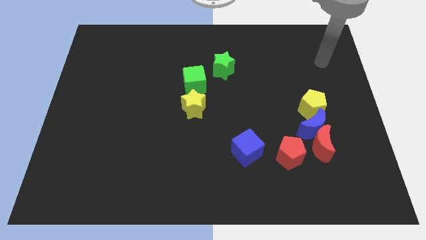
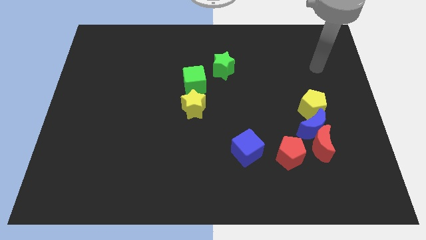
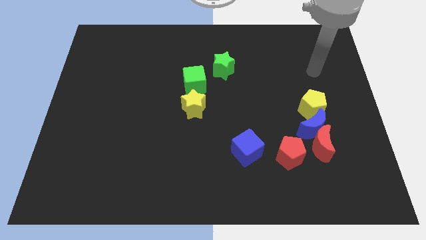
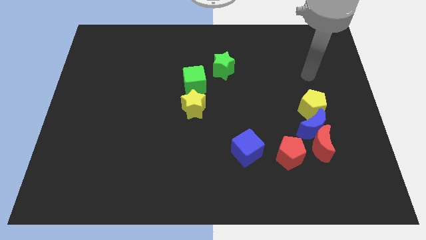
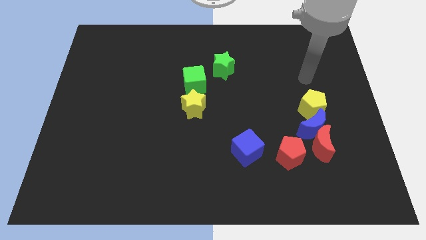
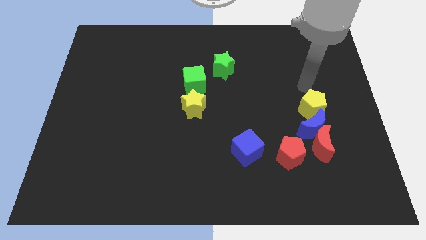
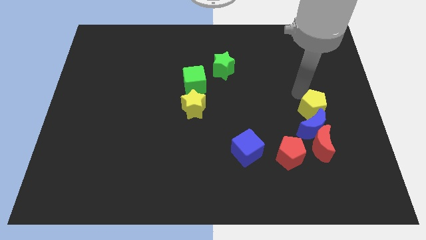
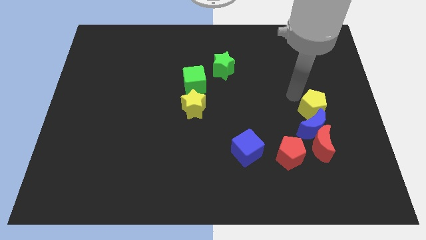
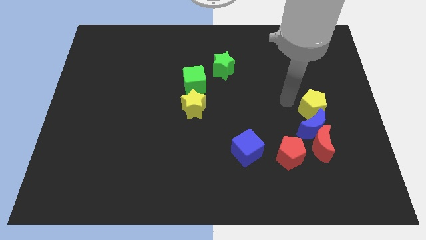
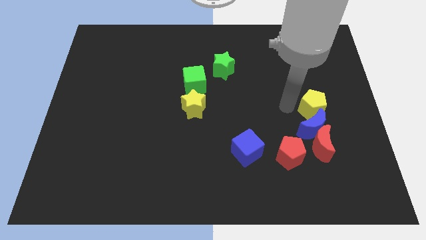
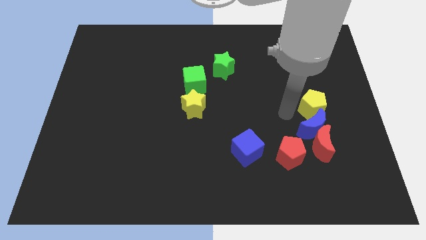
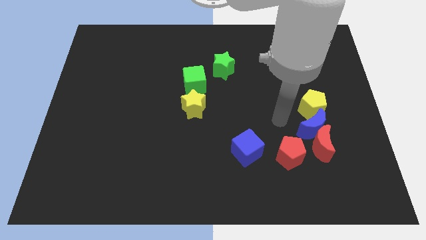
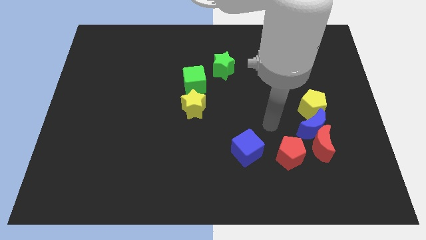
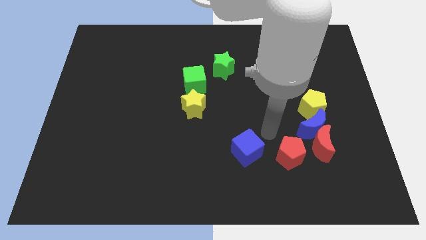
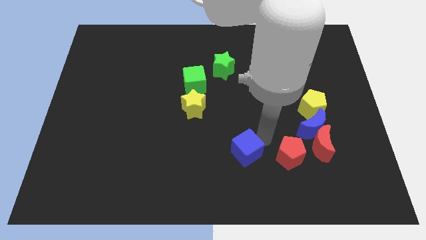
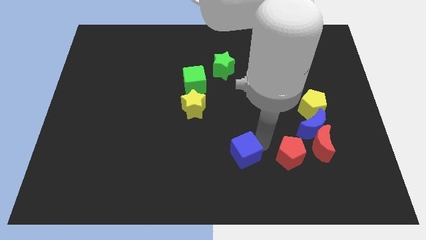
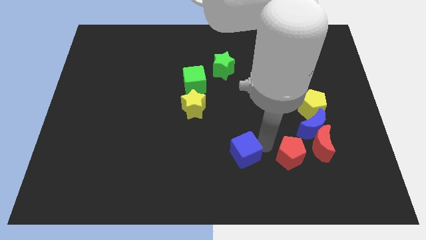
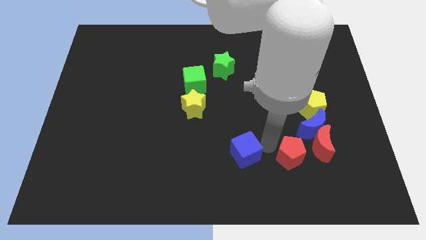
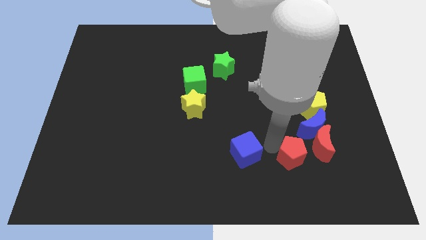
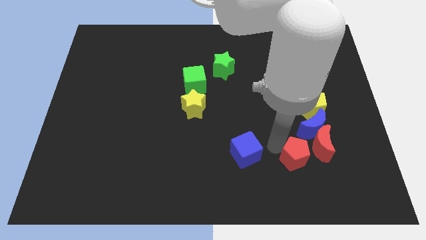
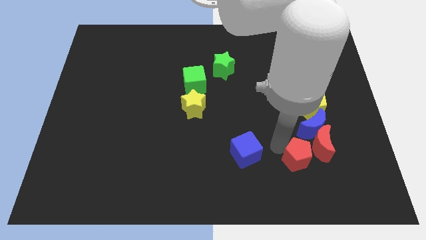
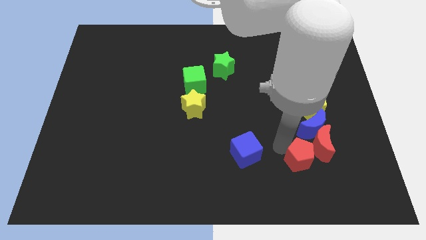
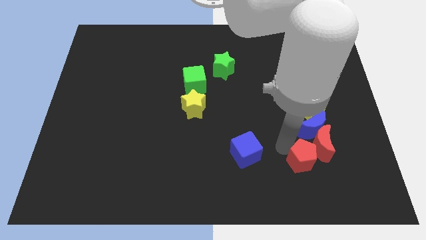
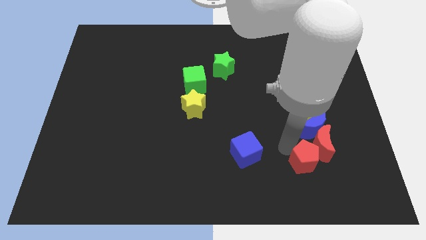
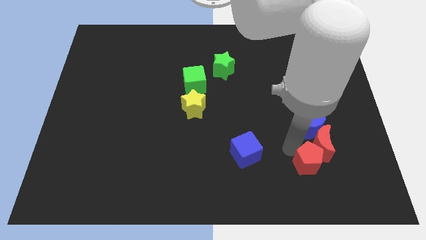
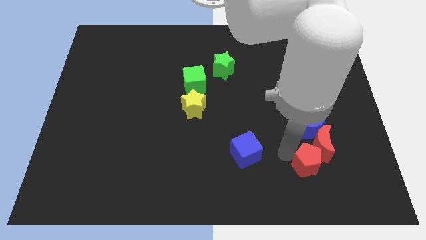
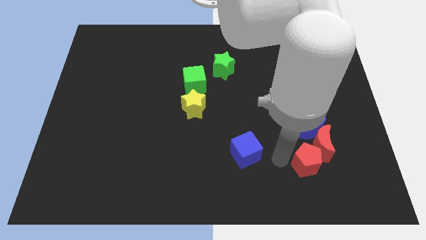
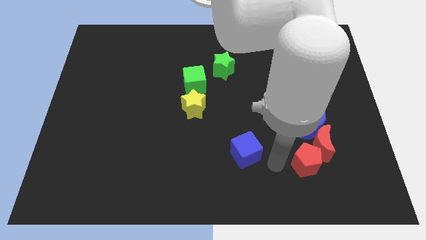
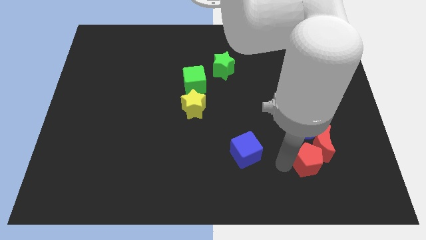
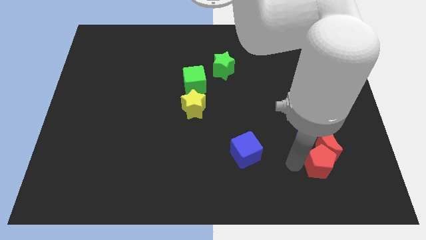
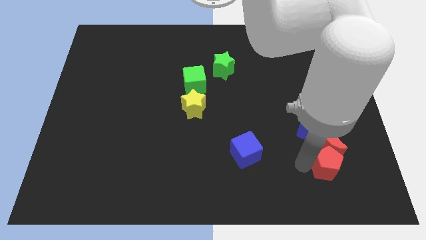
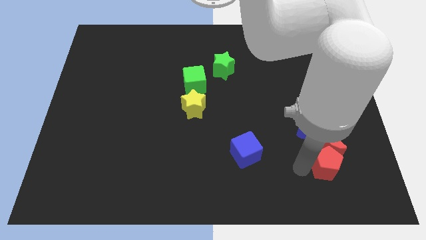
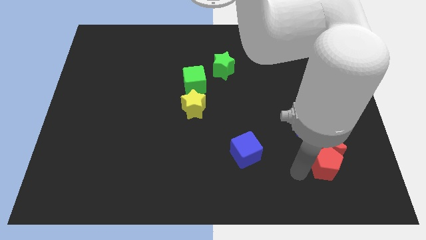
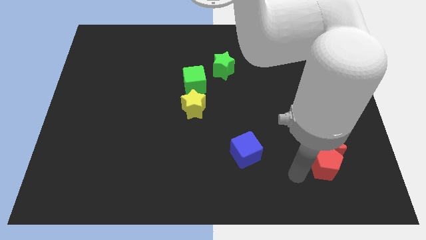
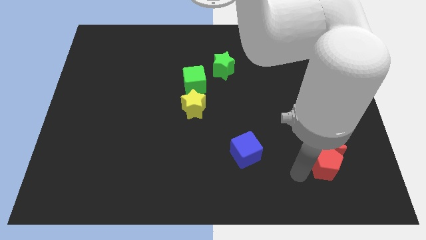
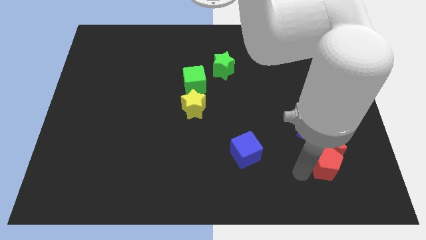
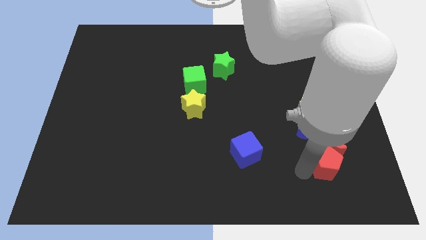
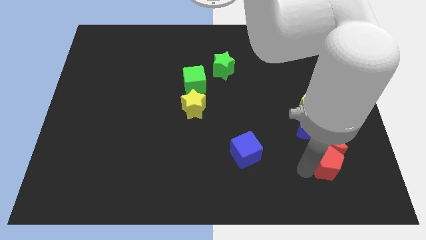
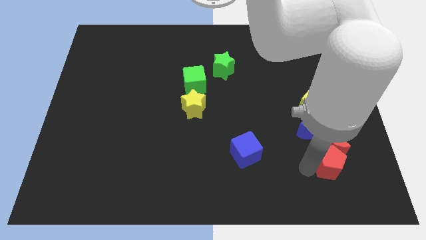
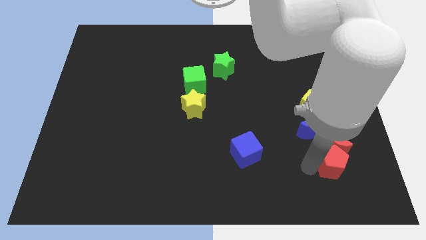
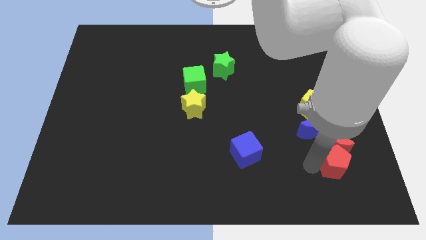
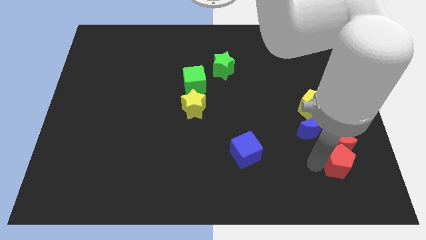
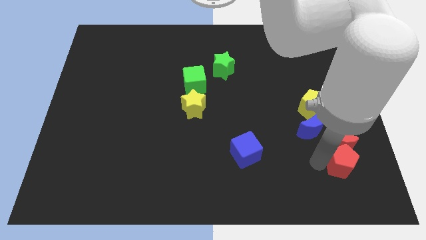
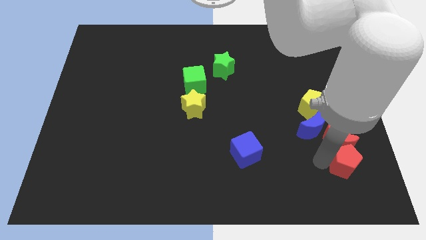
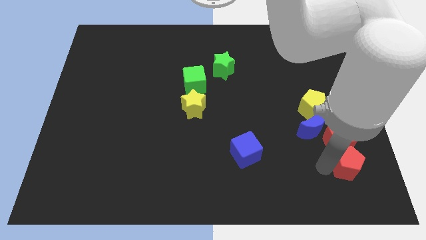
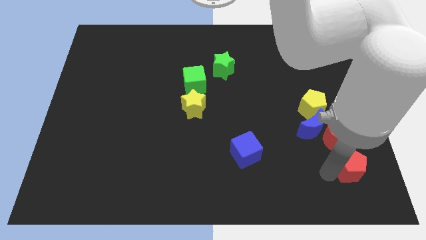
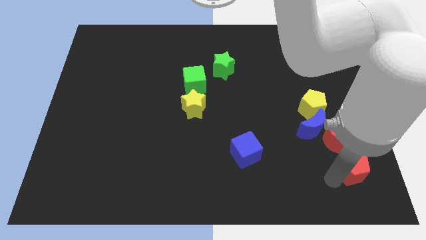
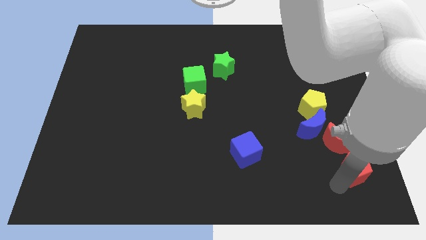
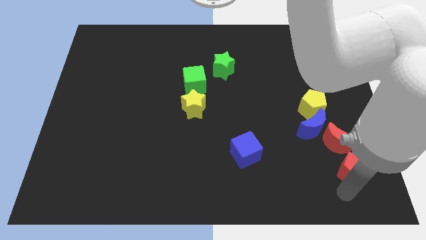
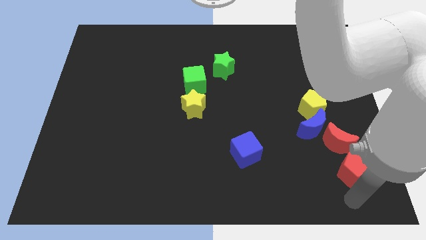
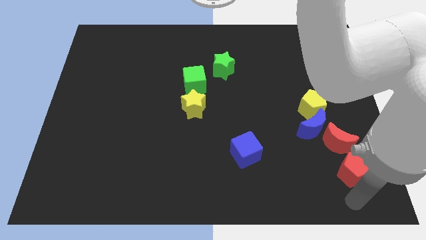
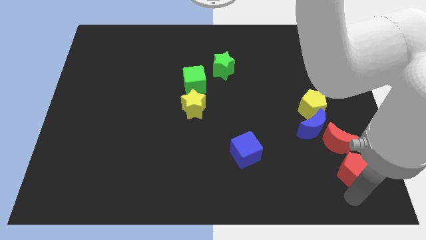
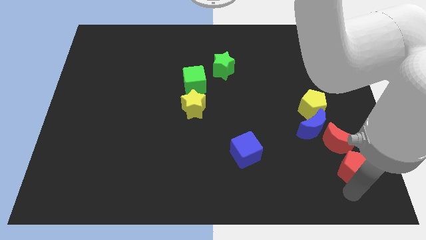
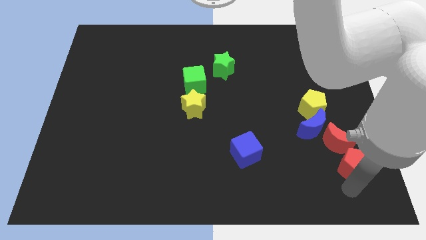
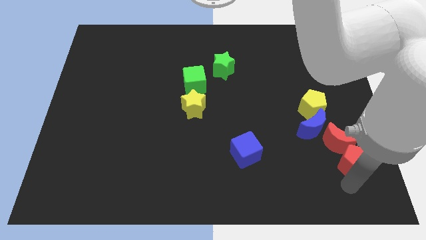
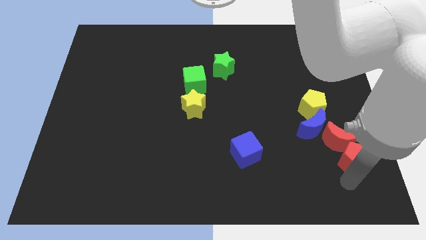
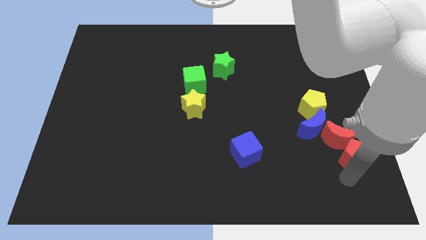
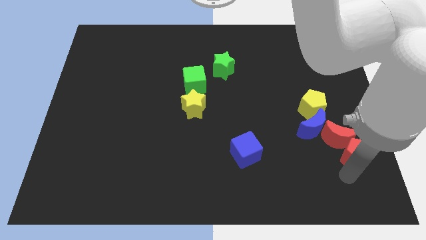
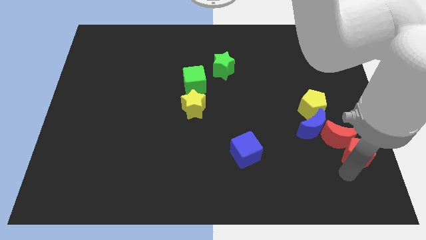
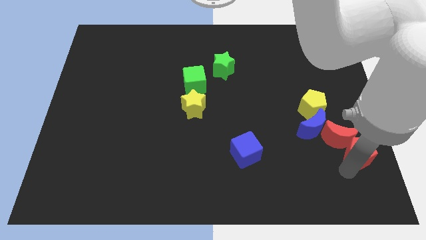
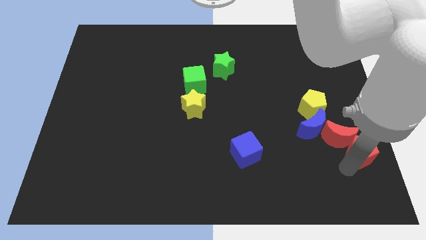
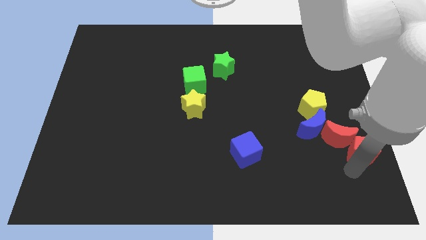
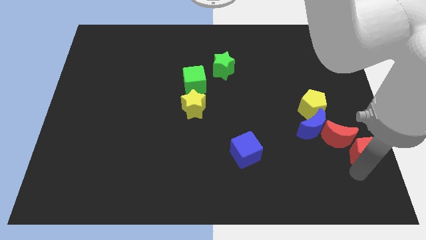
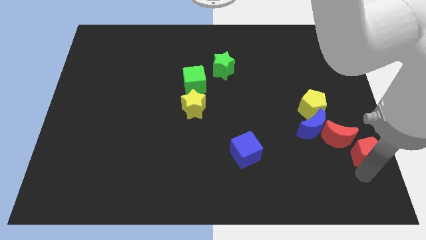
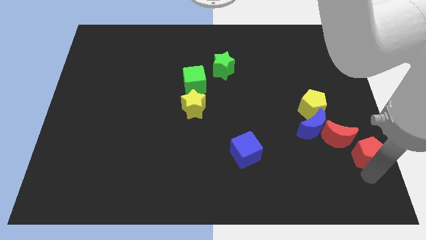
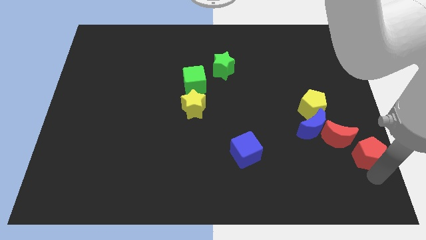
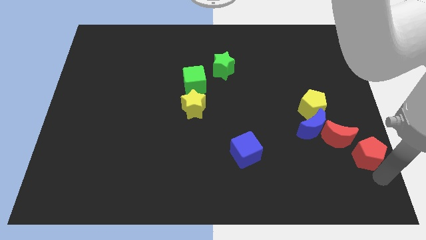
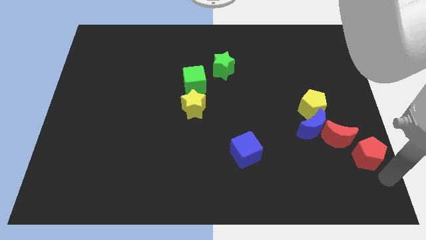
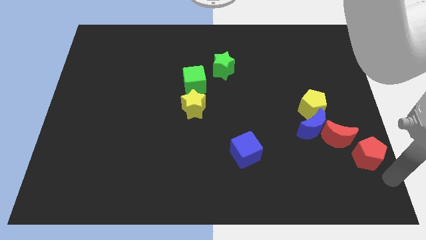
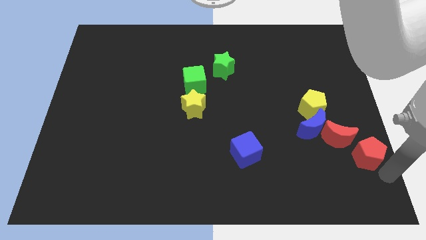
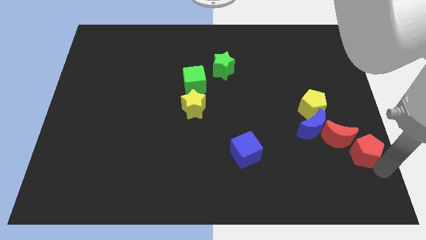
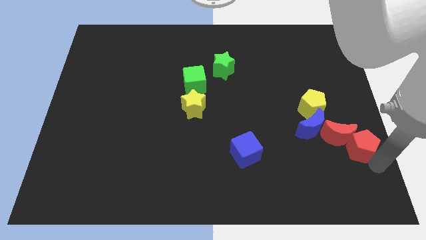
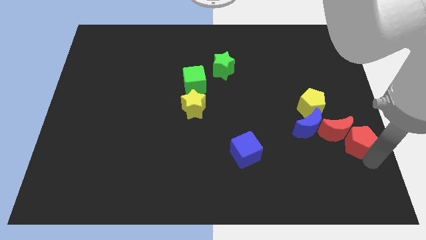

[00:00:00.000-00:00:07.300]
push the red pentagon to the center right

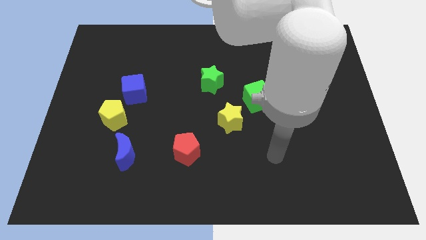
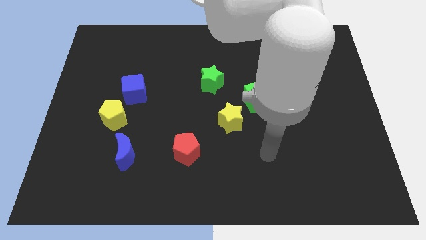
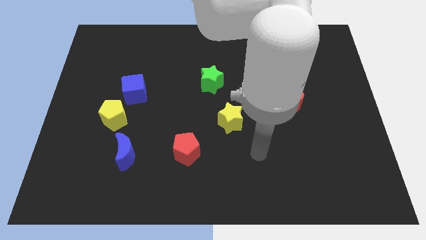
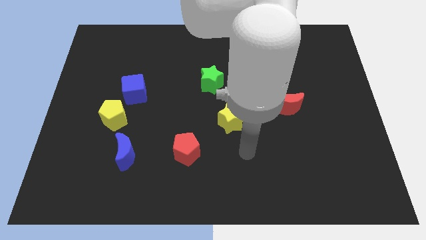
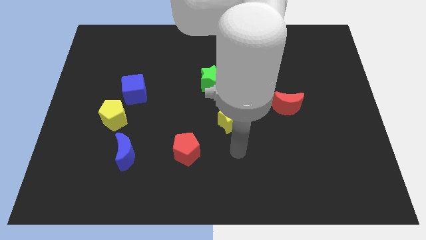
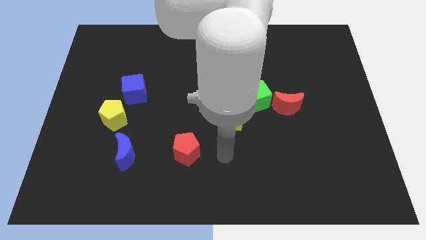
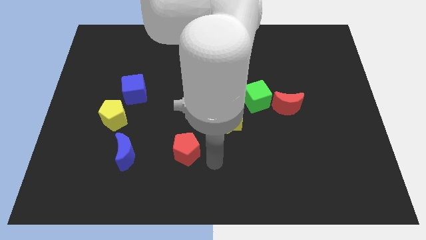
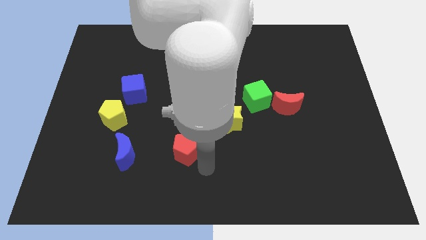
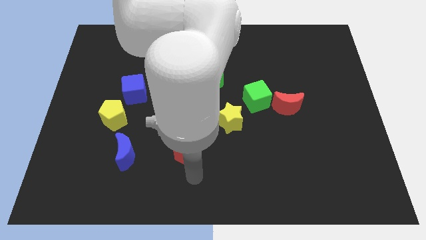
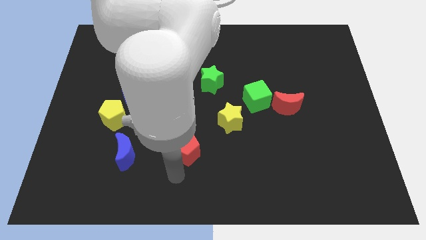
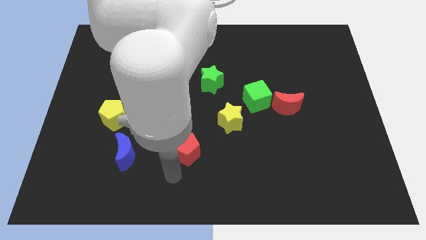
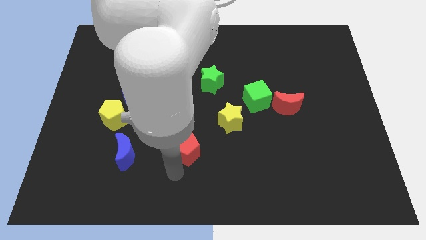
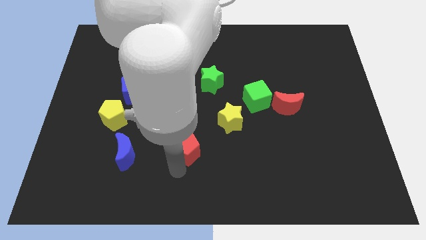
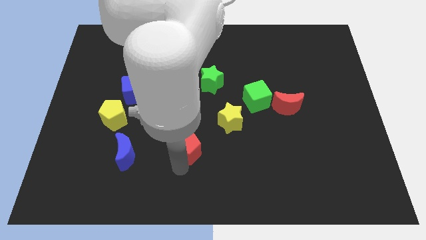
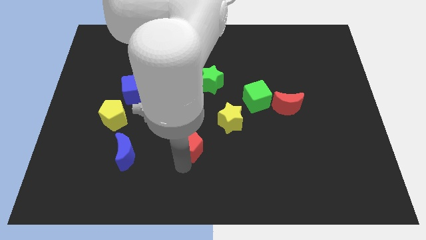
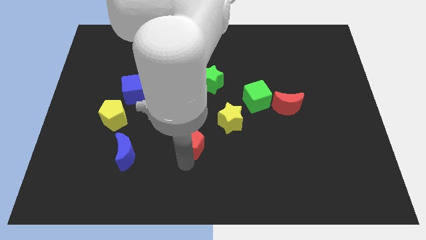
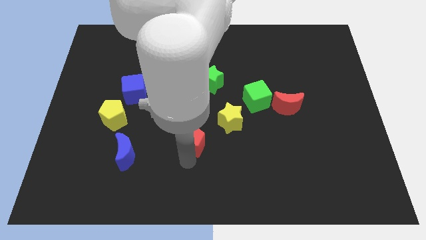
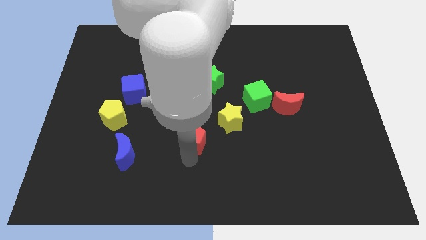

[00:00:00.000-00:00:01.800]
put the red pentagon to the middle of the board
